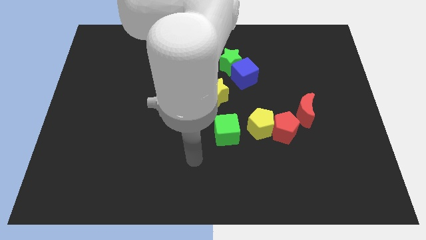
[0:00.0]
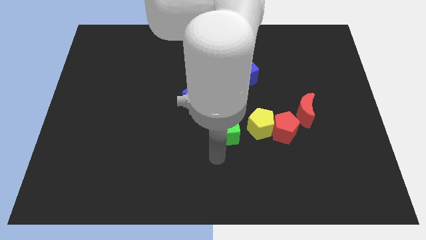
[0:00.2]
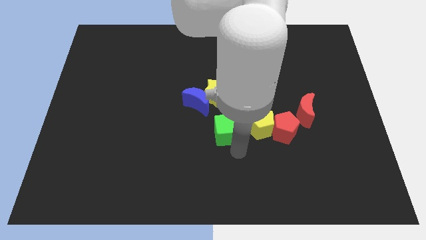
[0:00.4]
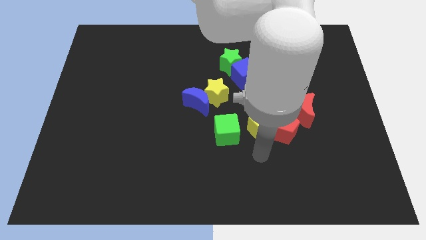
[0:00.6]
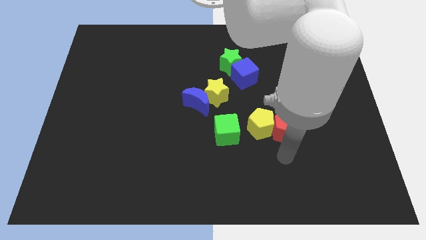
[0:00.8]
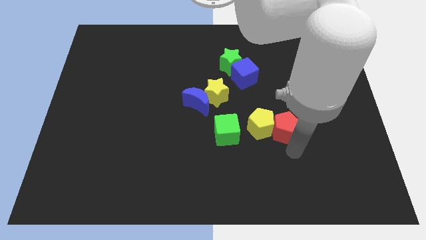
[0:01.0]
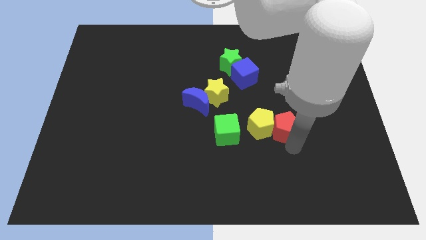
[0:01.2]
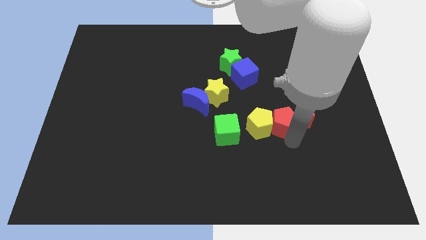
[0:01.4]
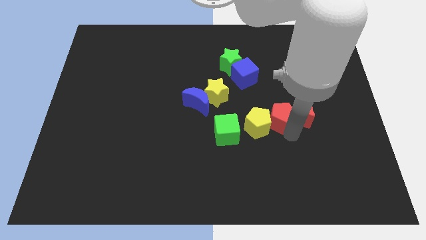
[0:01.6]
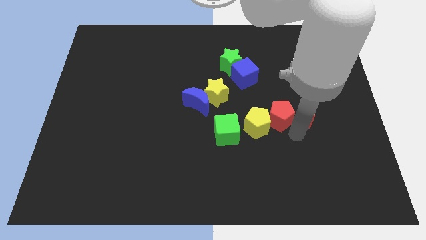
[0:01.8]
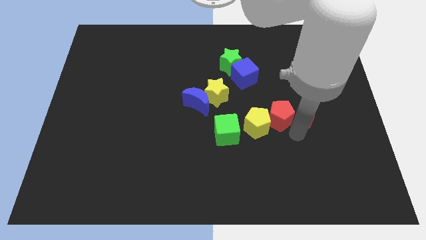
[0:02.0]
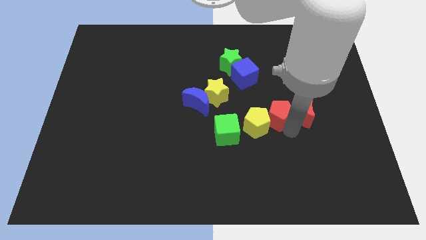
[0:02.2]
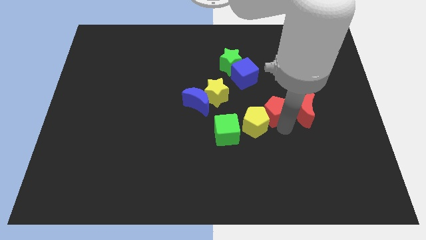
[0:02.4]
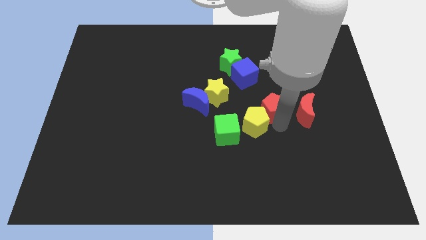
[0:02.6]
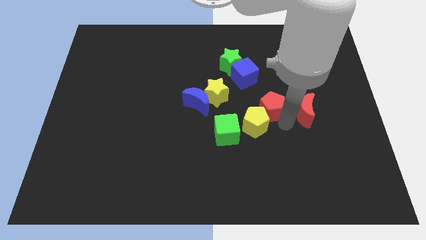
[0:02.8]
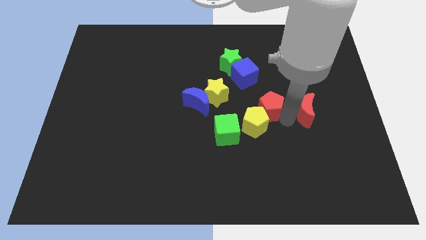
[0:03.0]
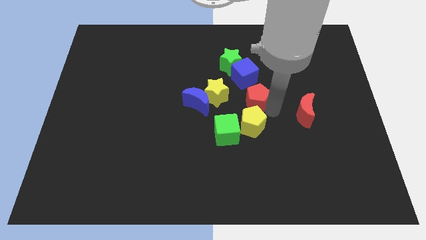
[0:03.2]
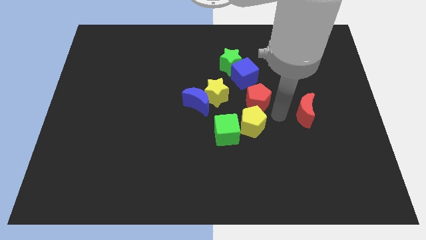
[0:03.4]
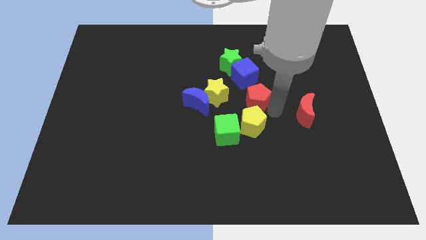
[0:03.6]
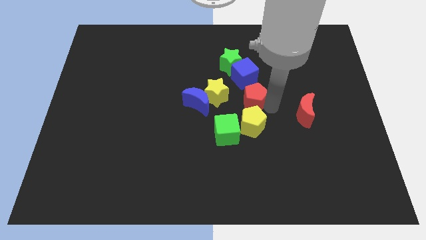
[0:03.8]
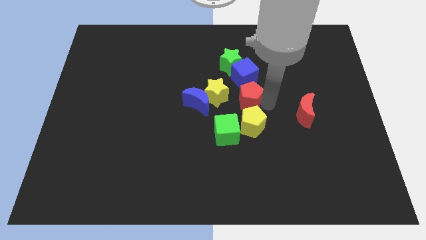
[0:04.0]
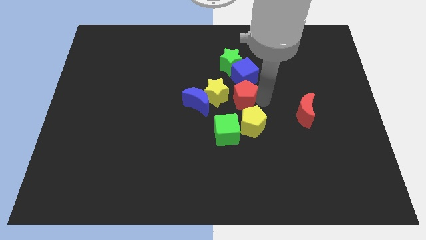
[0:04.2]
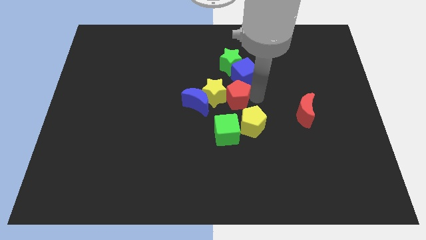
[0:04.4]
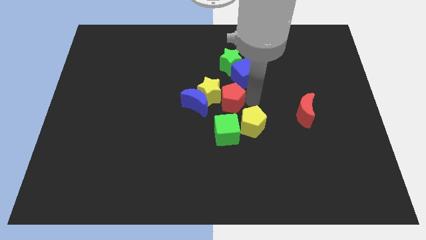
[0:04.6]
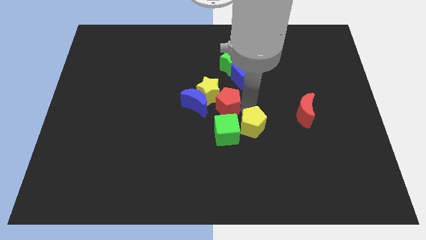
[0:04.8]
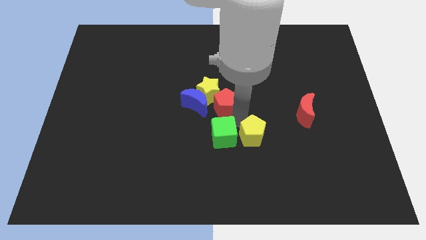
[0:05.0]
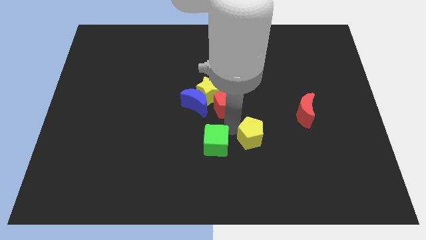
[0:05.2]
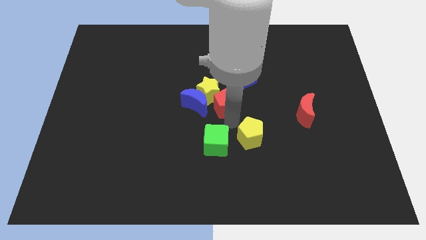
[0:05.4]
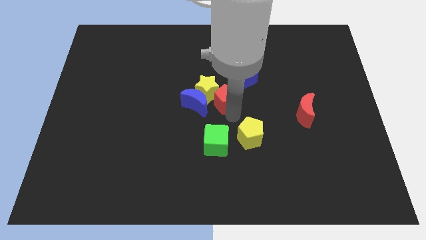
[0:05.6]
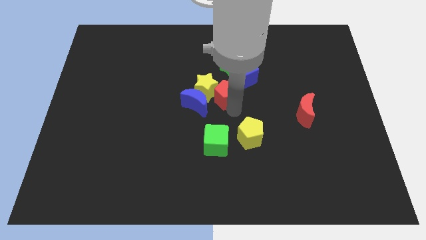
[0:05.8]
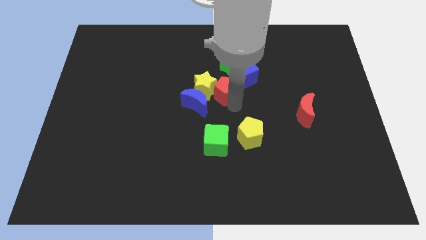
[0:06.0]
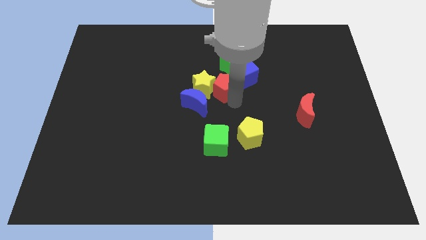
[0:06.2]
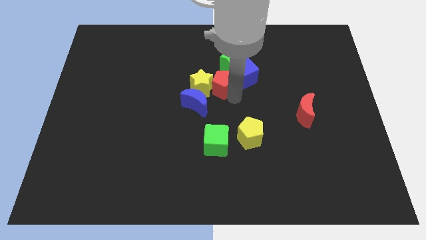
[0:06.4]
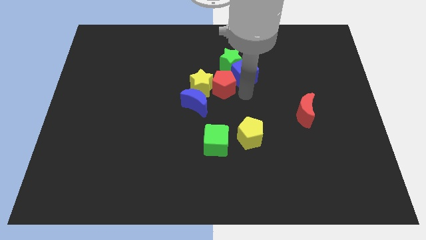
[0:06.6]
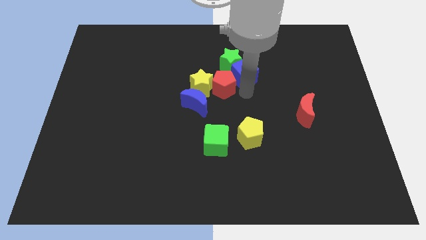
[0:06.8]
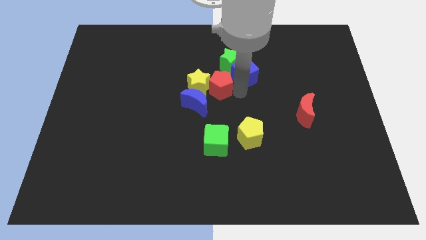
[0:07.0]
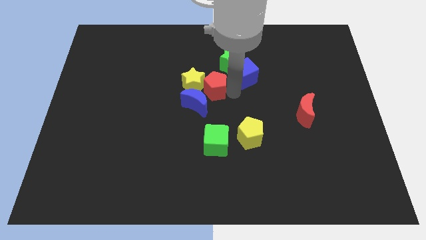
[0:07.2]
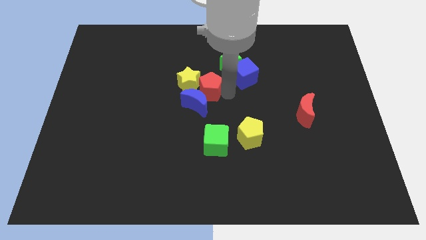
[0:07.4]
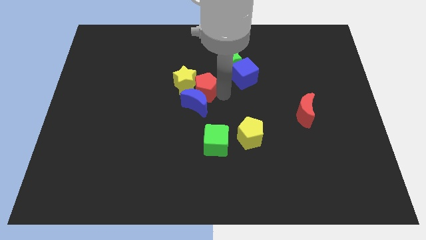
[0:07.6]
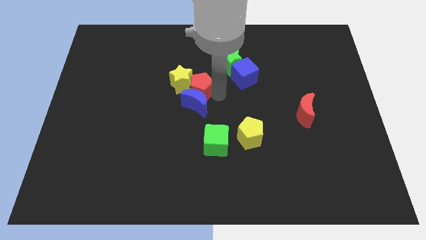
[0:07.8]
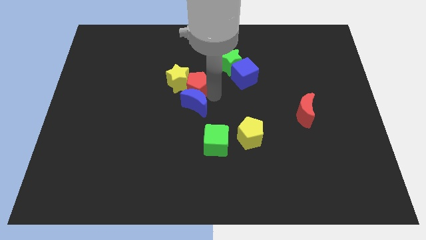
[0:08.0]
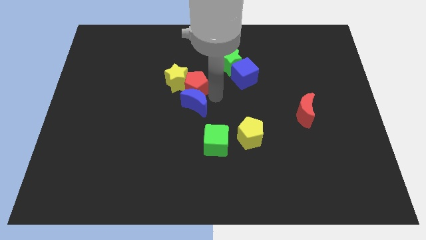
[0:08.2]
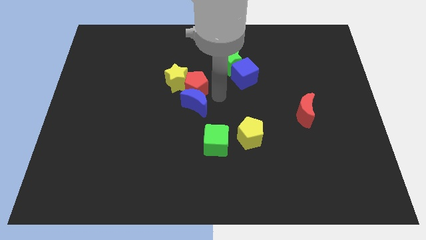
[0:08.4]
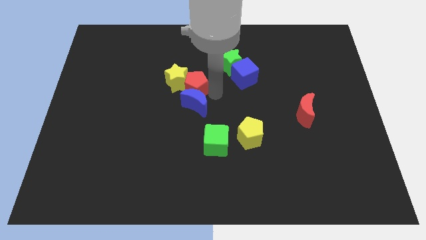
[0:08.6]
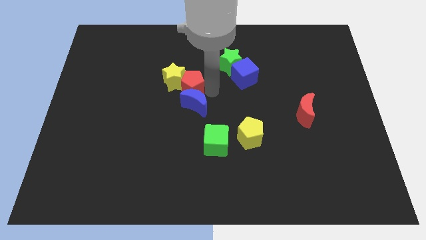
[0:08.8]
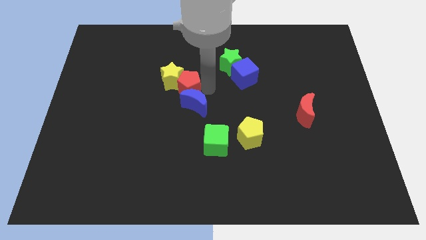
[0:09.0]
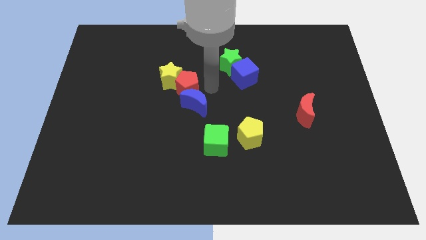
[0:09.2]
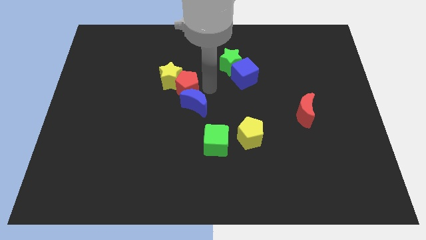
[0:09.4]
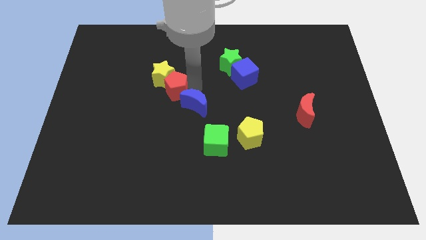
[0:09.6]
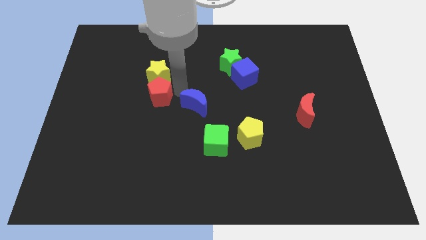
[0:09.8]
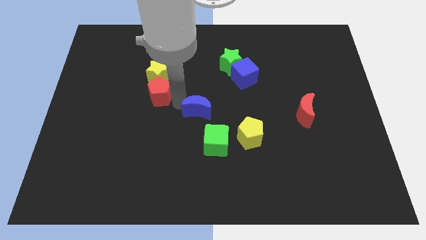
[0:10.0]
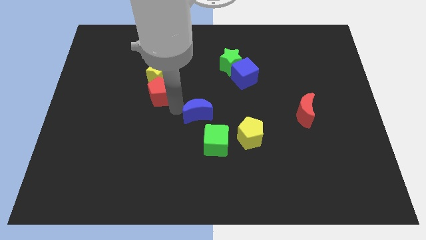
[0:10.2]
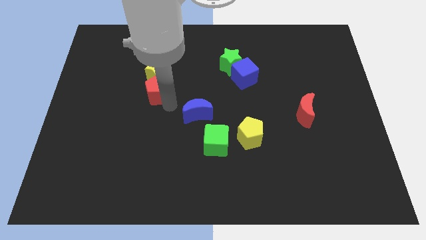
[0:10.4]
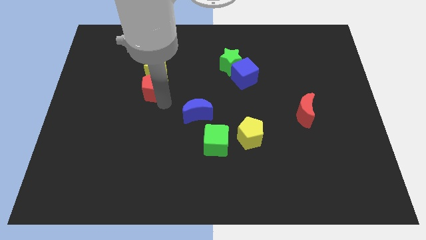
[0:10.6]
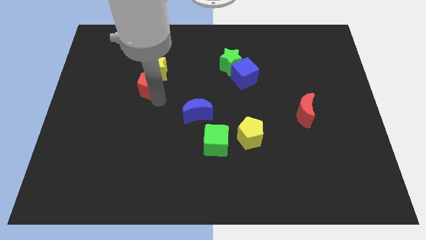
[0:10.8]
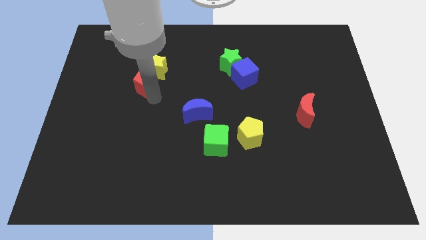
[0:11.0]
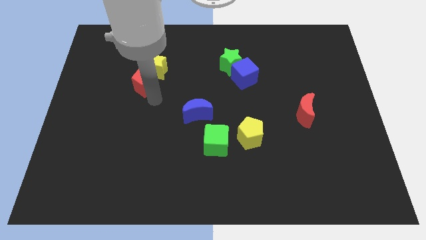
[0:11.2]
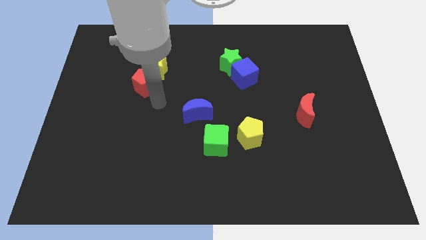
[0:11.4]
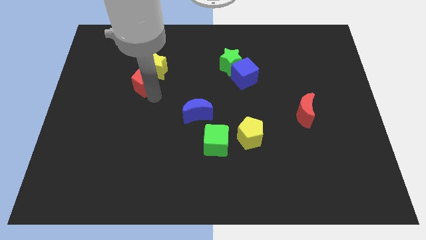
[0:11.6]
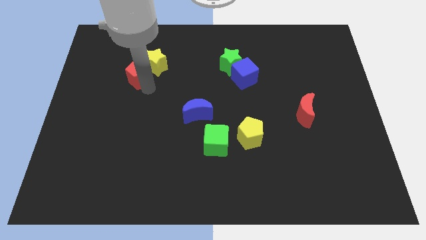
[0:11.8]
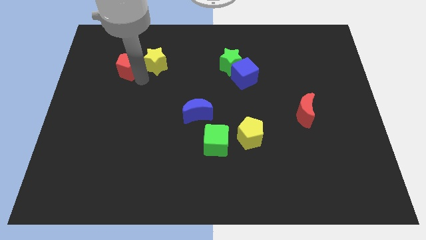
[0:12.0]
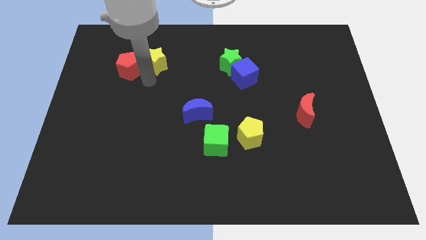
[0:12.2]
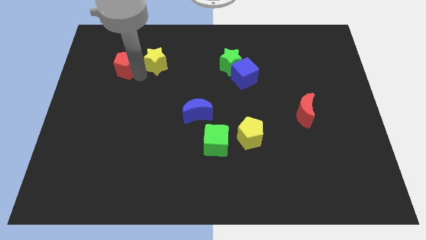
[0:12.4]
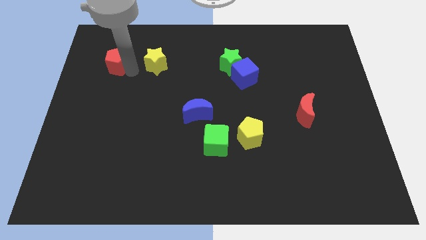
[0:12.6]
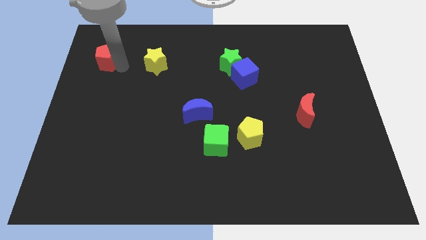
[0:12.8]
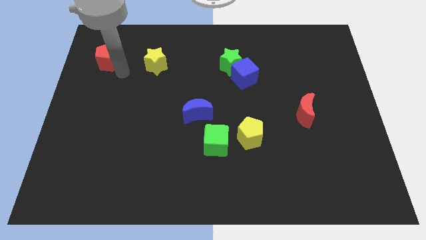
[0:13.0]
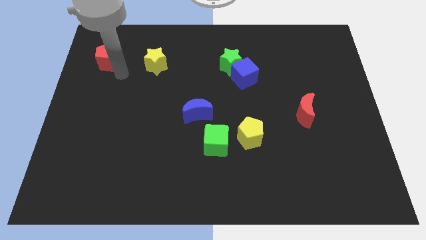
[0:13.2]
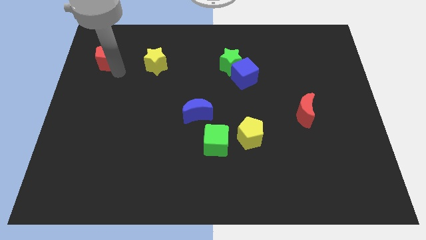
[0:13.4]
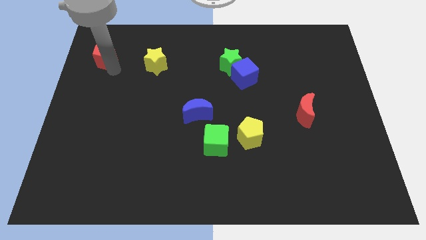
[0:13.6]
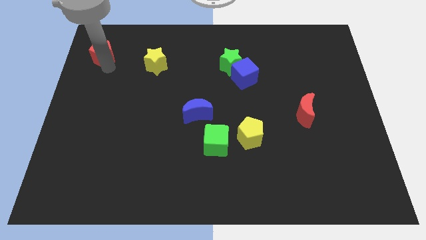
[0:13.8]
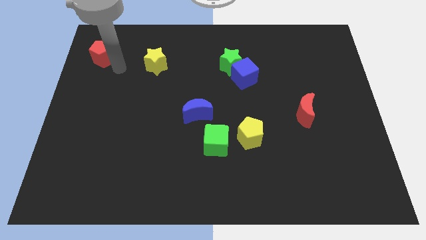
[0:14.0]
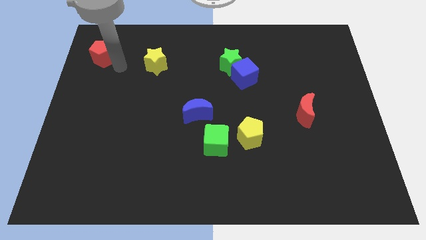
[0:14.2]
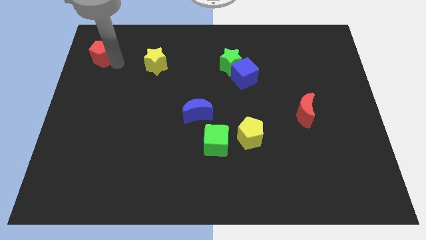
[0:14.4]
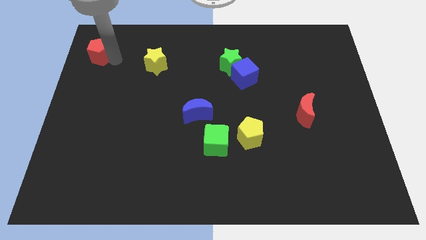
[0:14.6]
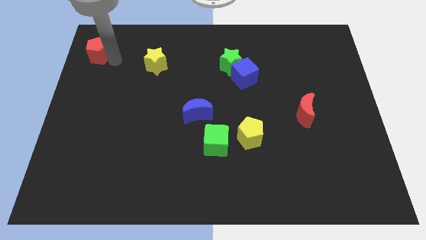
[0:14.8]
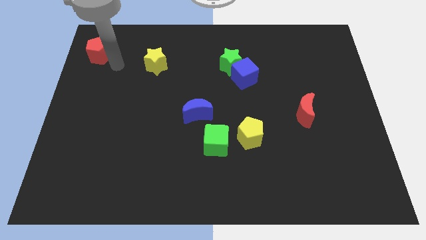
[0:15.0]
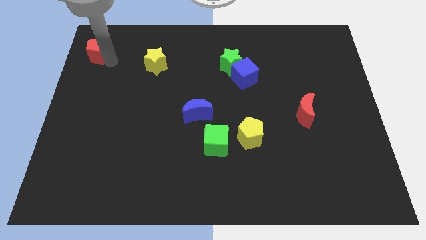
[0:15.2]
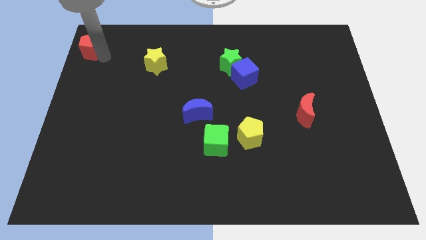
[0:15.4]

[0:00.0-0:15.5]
put the red pentagon to the upper left corner
